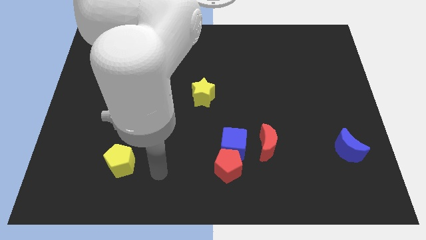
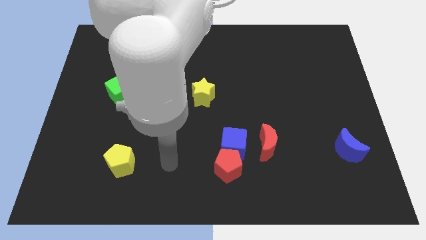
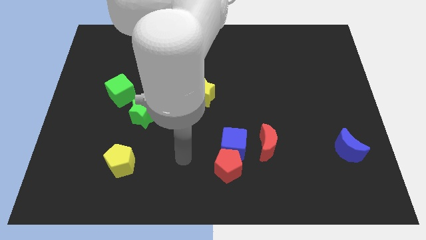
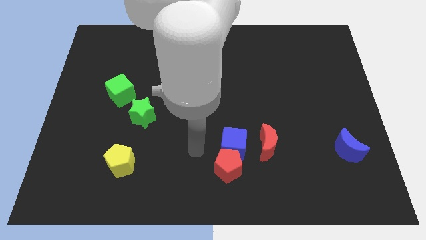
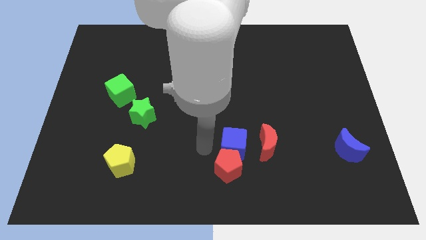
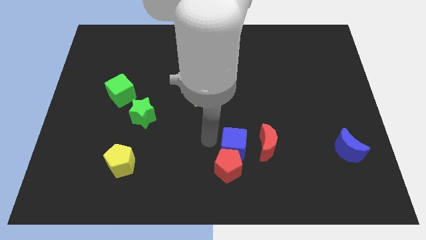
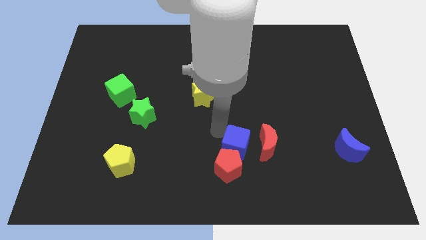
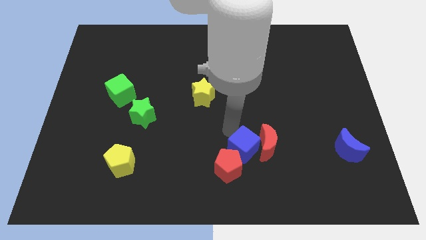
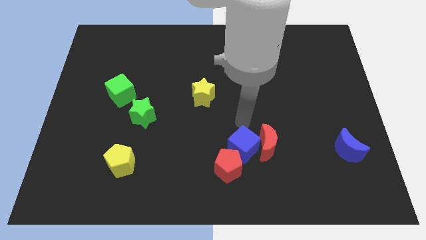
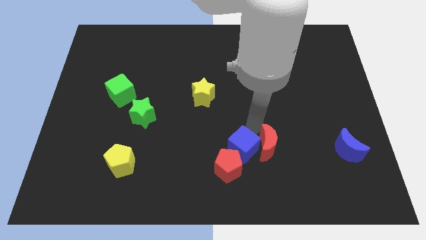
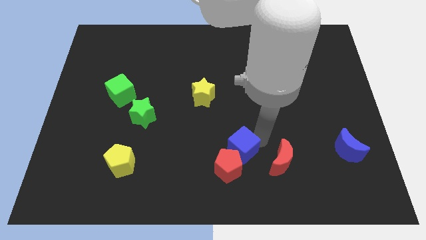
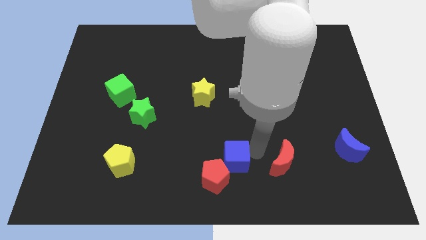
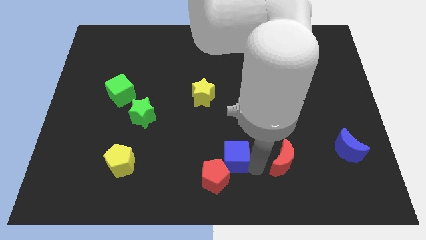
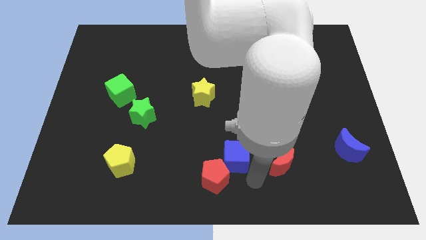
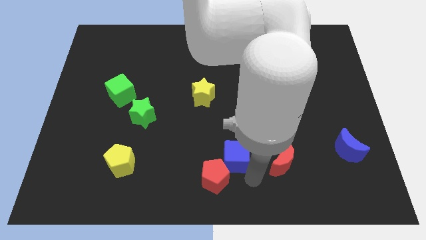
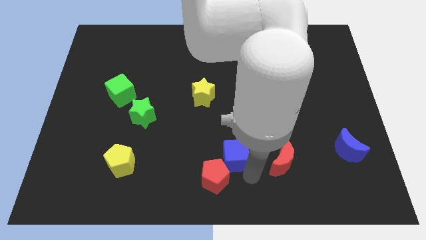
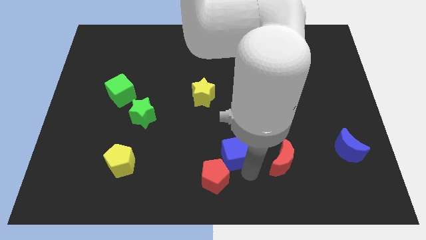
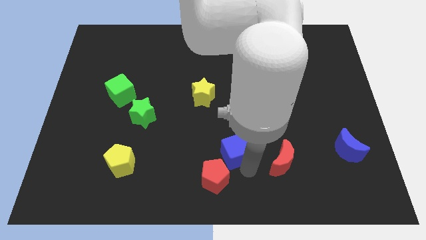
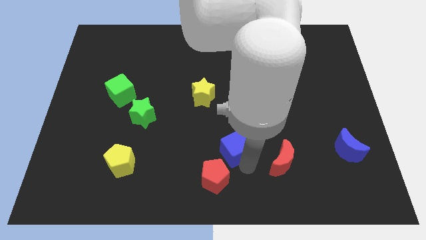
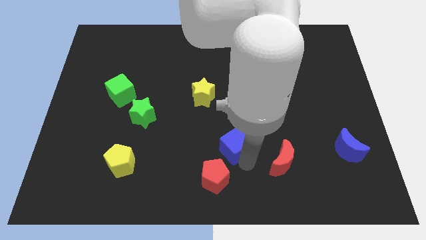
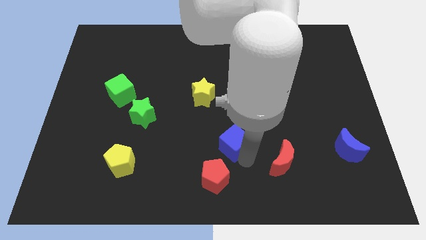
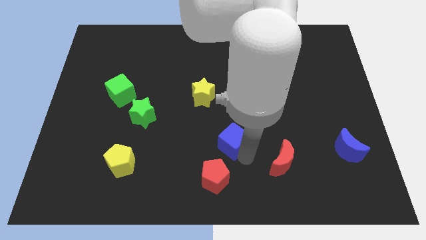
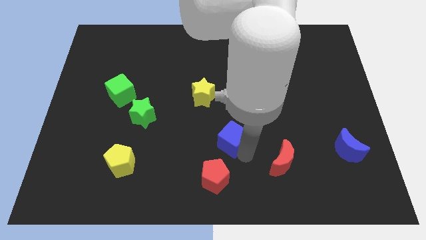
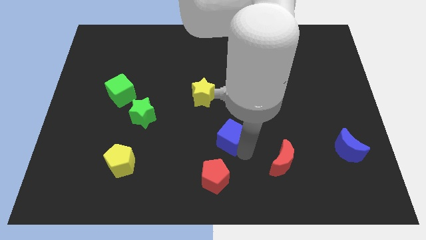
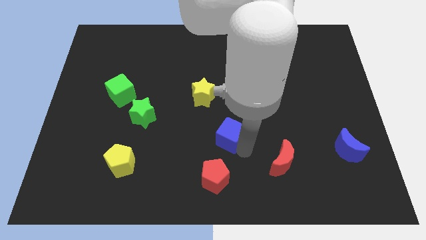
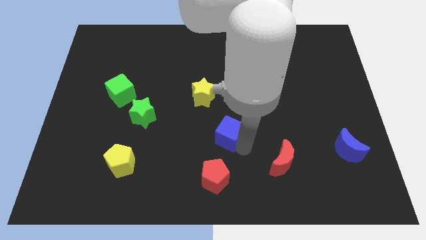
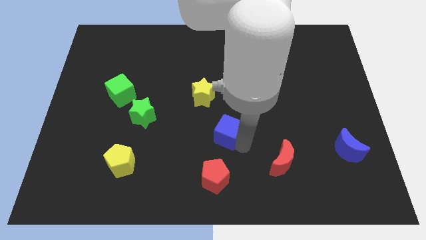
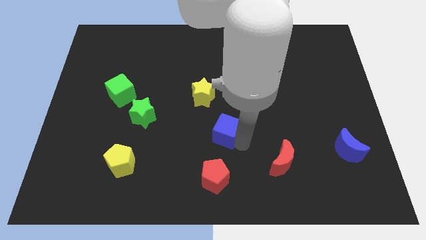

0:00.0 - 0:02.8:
pull the blue cube apart from the red pentagon and red moon

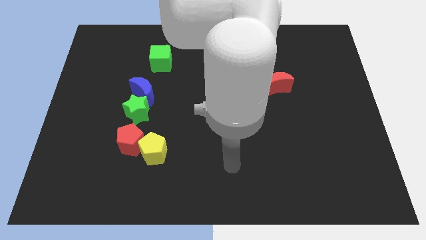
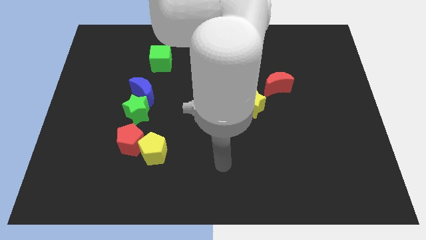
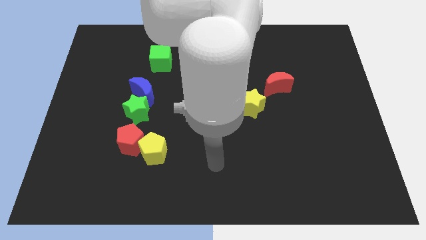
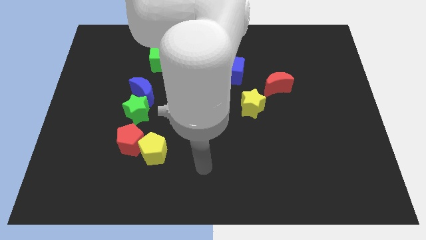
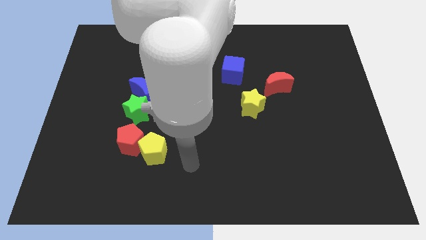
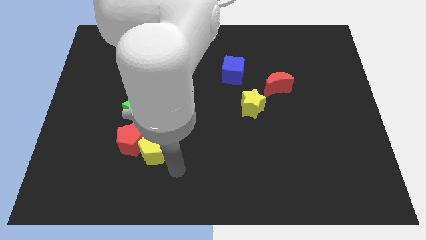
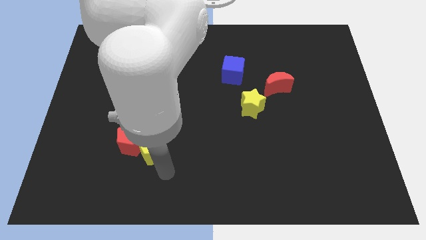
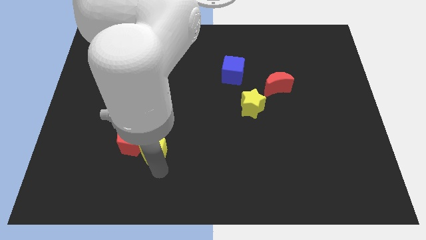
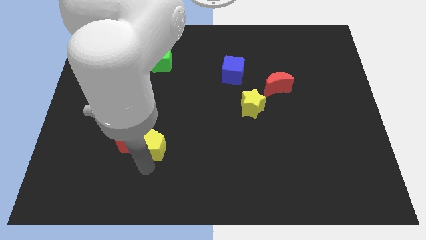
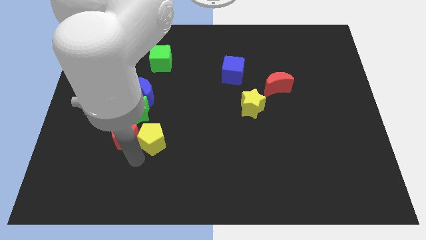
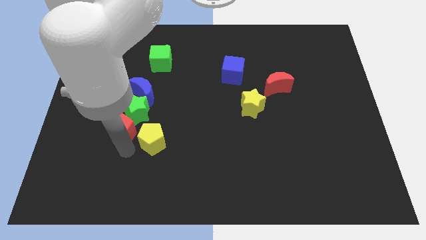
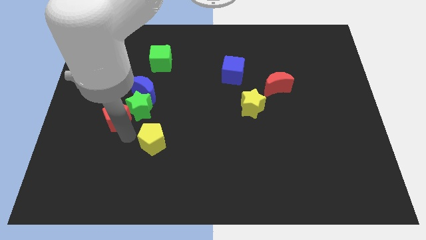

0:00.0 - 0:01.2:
separate the yellow pentagon from the red pentagon

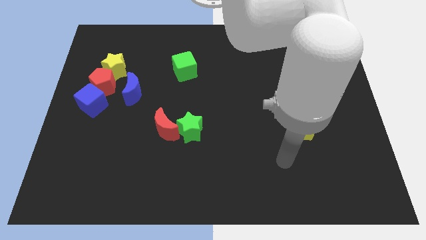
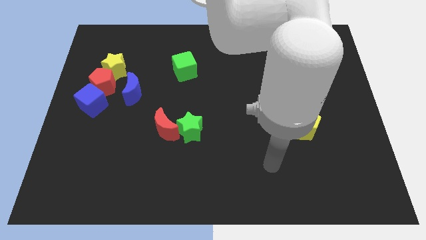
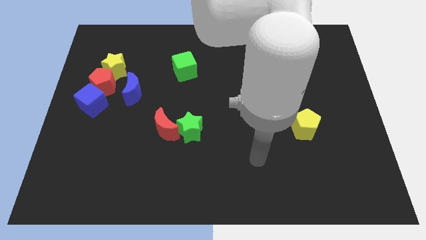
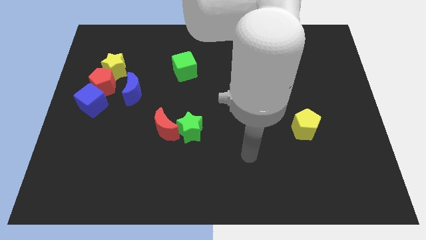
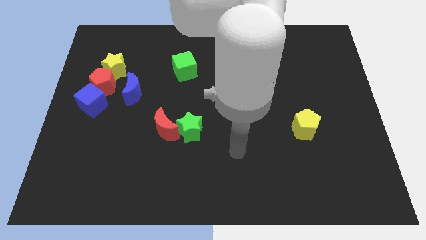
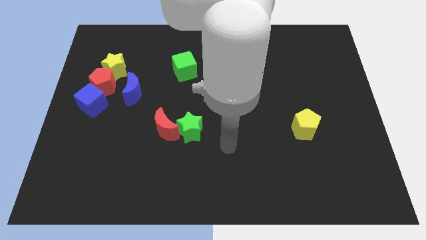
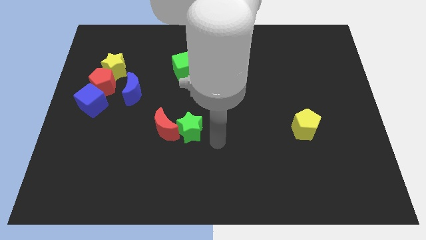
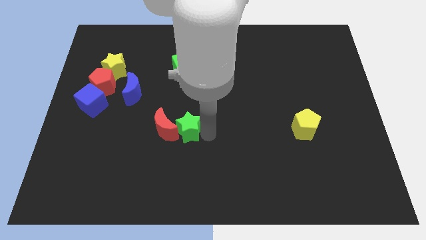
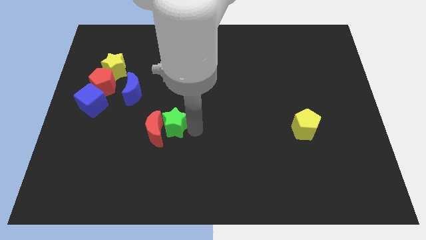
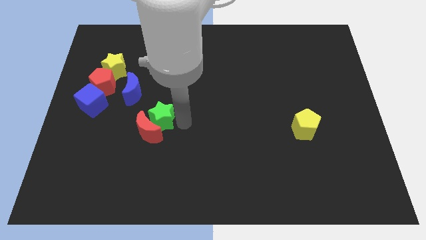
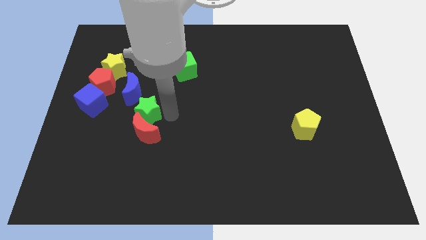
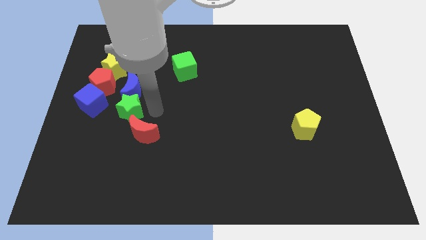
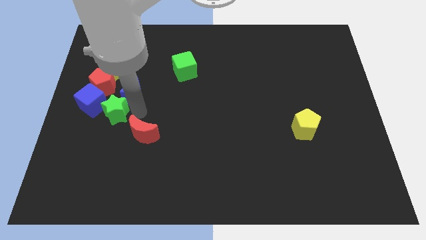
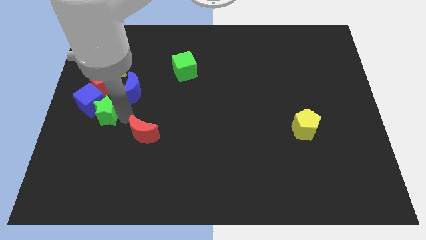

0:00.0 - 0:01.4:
separate the red moon from the green star

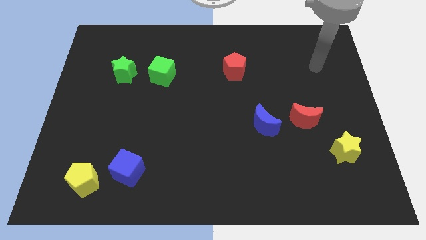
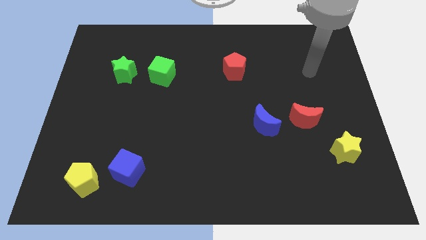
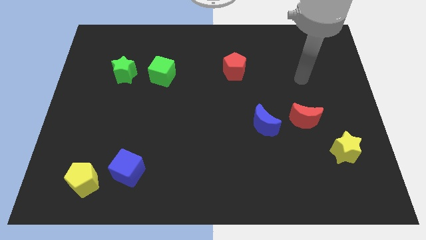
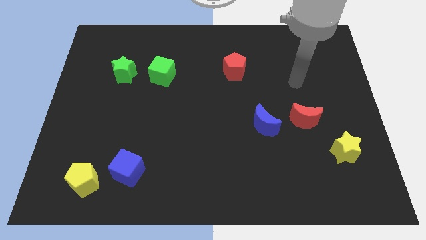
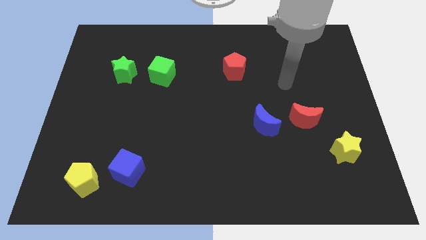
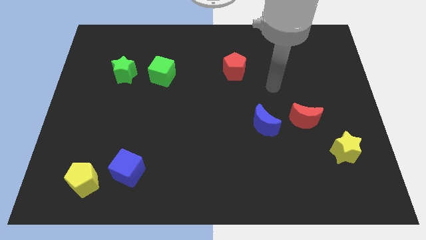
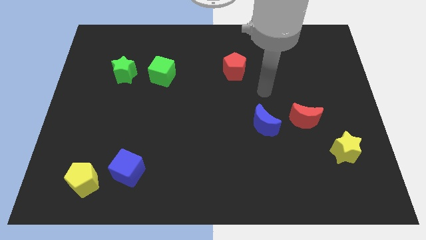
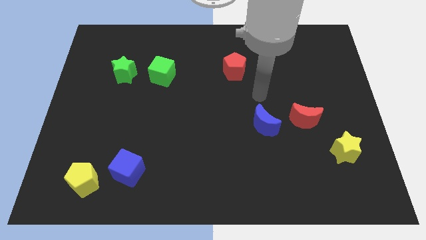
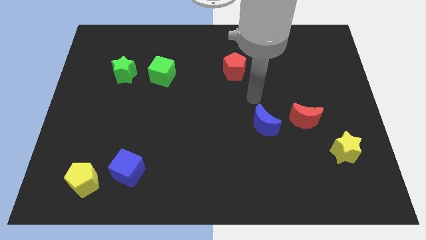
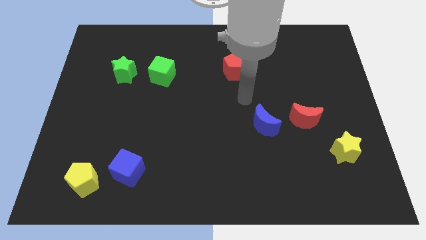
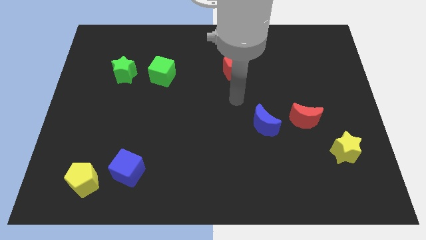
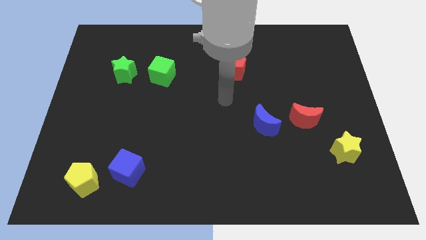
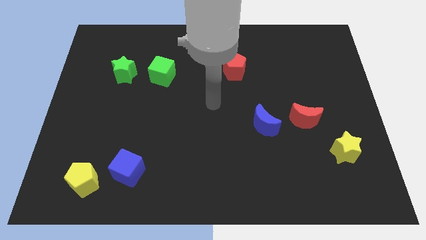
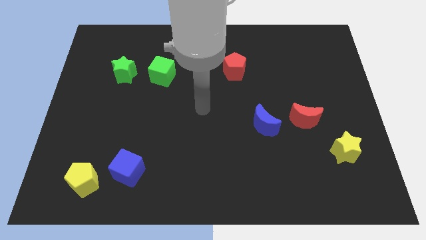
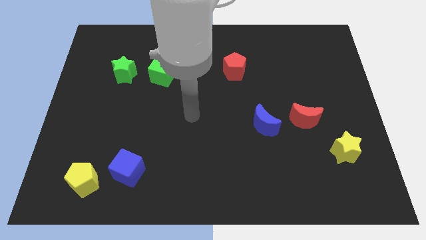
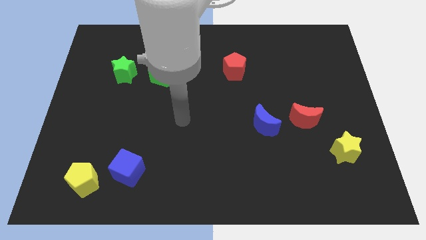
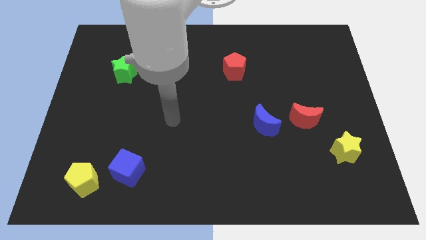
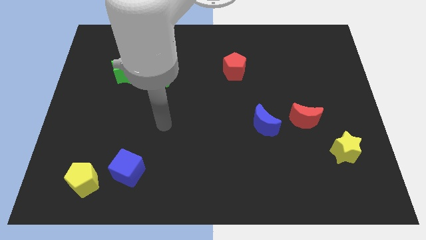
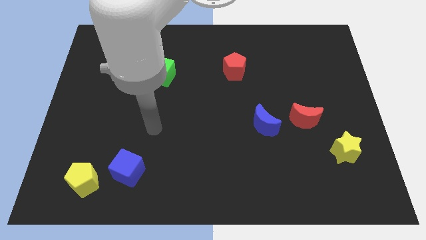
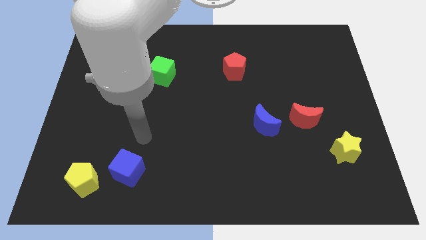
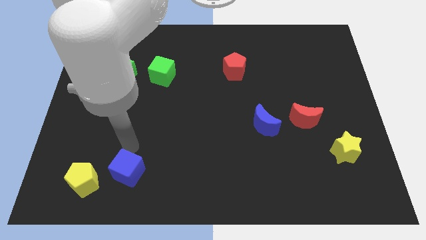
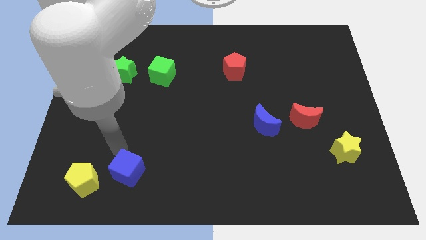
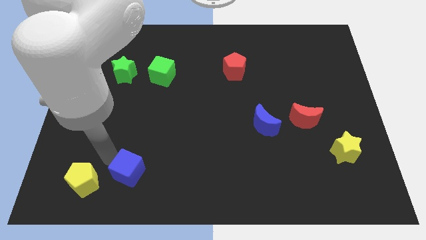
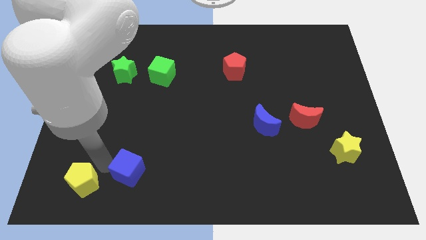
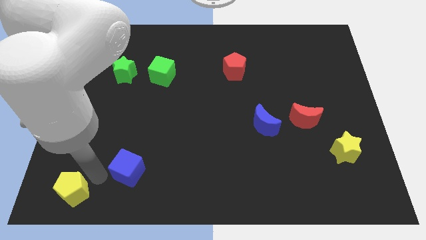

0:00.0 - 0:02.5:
pull the blue cube apart from the yellow pentagon

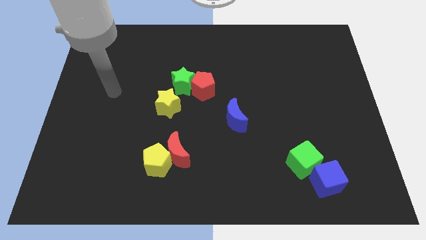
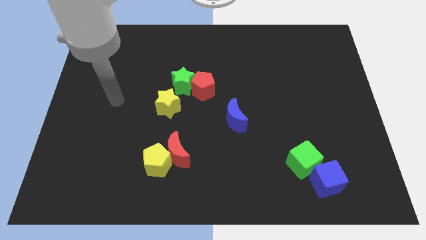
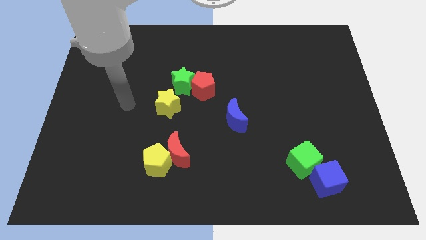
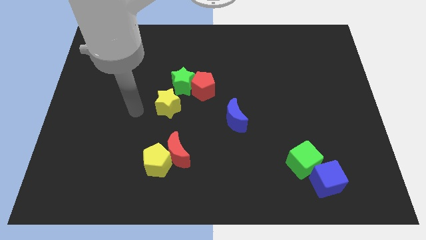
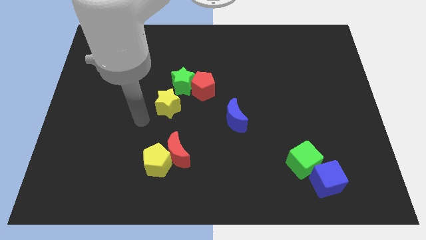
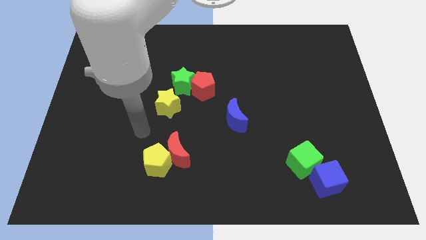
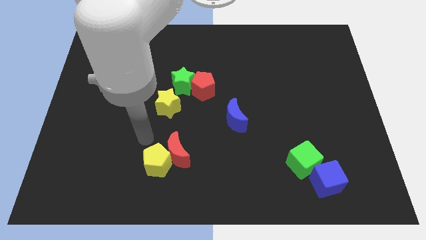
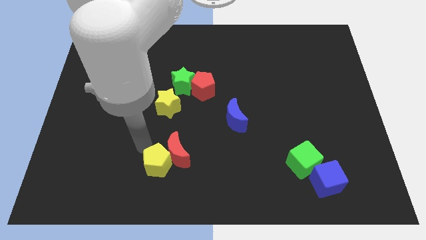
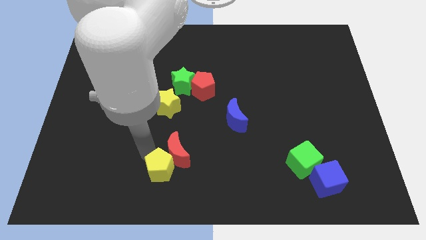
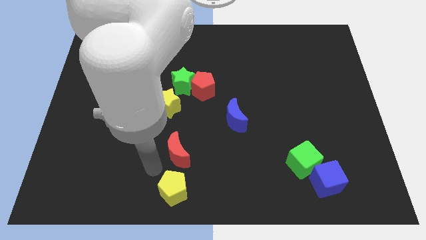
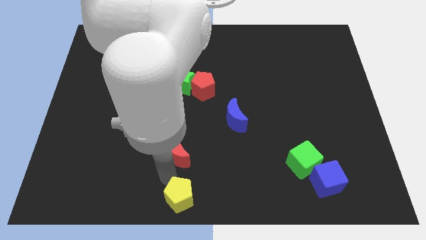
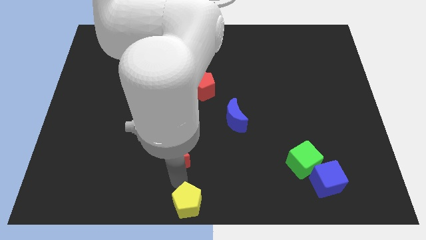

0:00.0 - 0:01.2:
pull the red moon apart from the yellow pentagon
